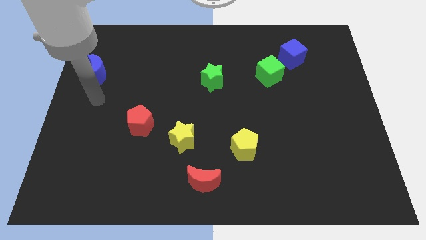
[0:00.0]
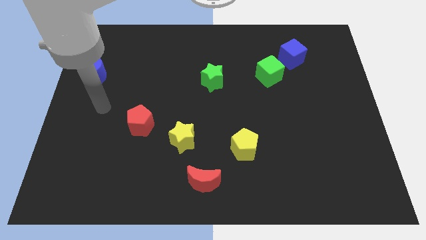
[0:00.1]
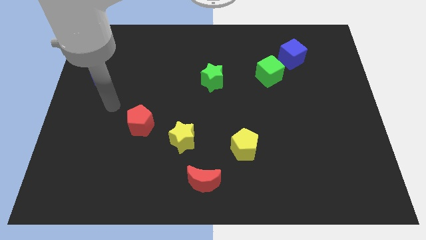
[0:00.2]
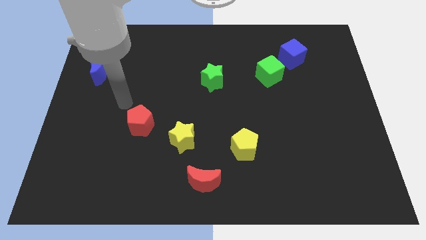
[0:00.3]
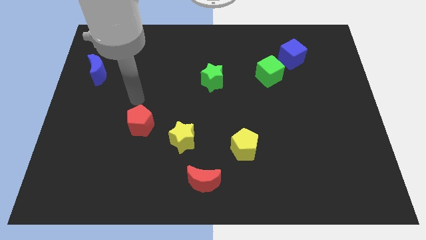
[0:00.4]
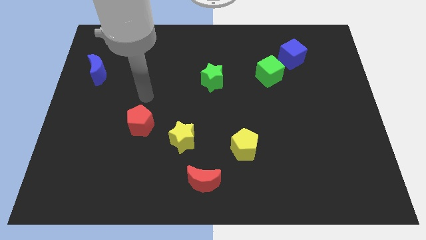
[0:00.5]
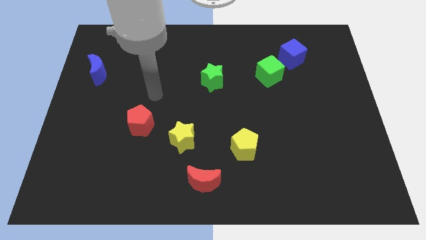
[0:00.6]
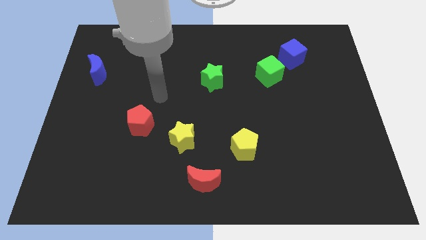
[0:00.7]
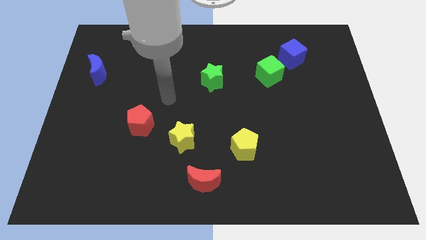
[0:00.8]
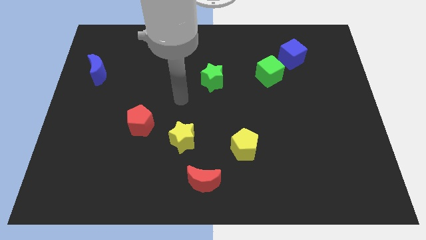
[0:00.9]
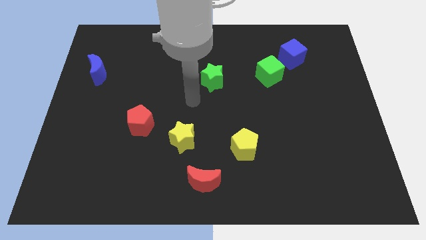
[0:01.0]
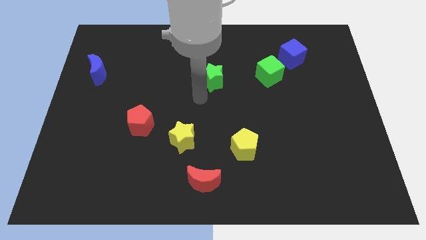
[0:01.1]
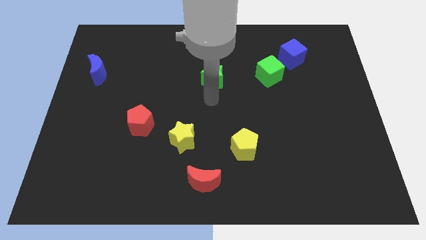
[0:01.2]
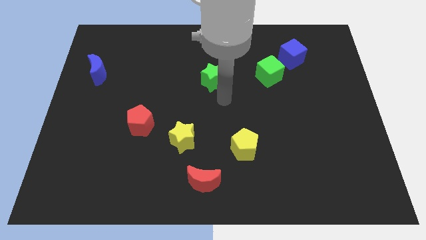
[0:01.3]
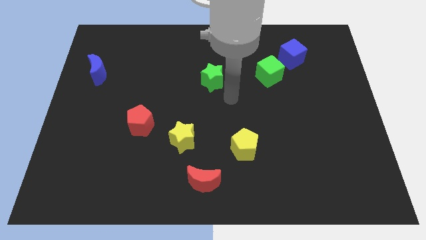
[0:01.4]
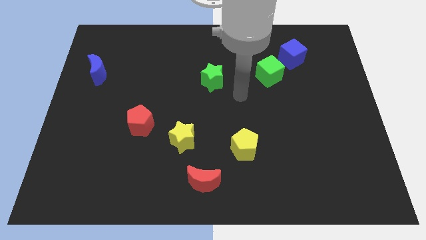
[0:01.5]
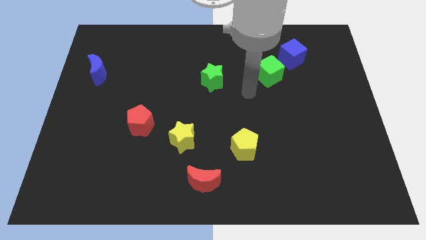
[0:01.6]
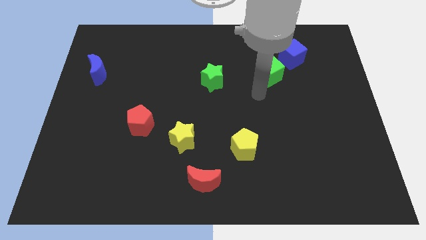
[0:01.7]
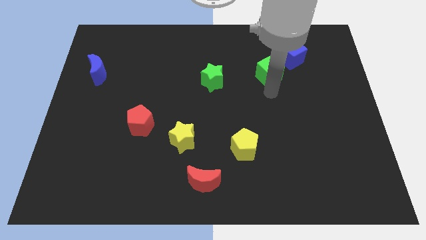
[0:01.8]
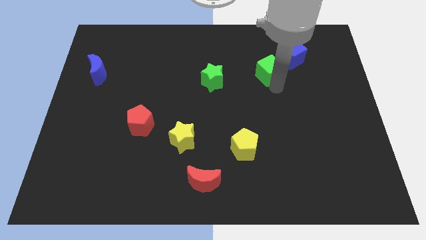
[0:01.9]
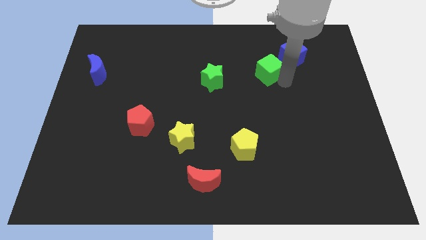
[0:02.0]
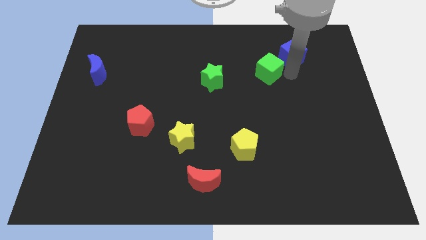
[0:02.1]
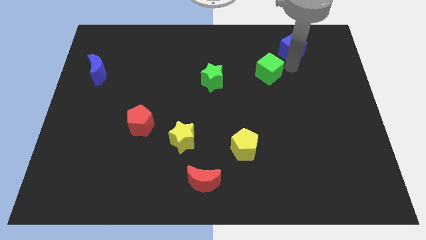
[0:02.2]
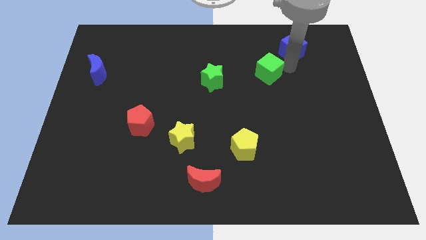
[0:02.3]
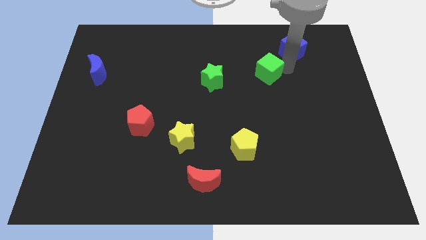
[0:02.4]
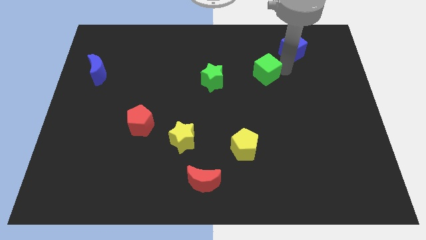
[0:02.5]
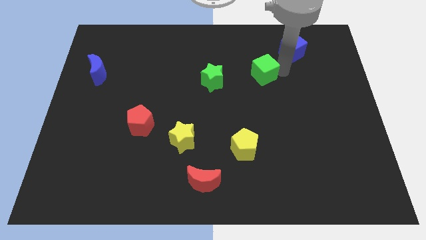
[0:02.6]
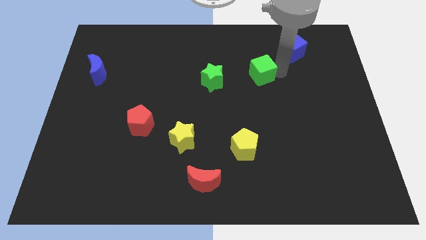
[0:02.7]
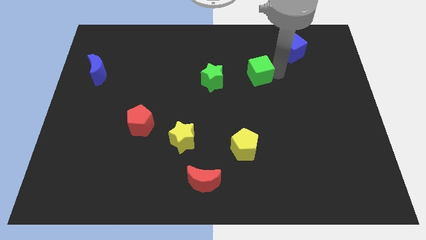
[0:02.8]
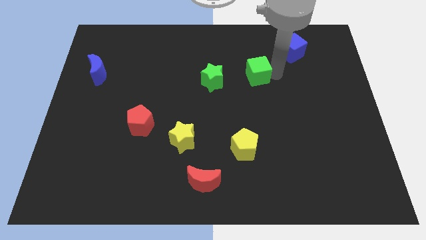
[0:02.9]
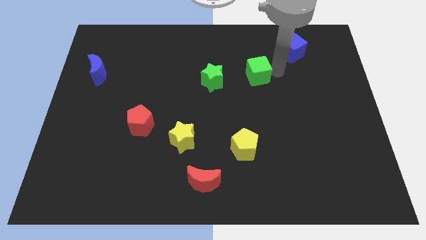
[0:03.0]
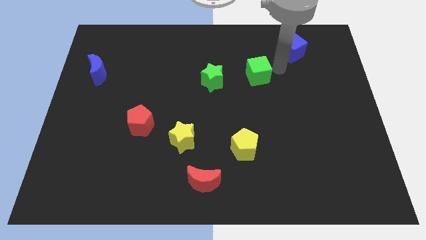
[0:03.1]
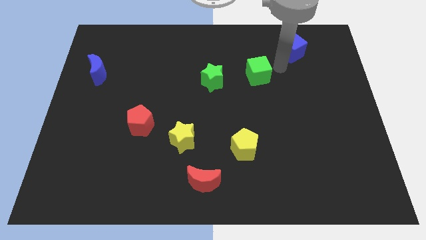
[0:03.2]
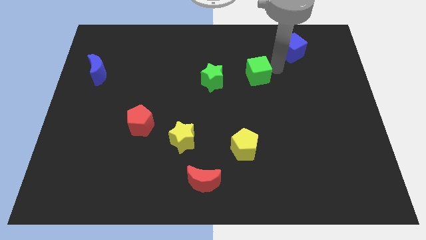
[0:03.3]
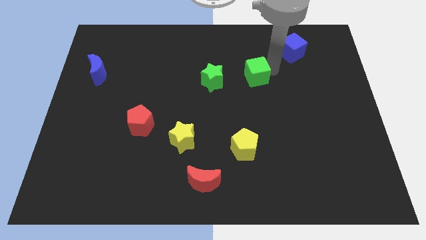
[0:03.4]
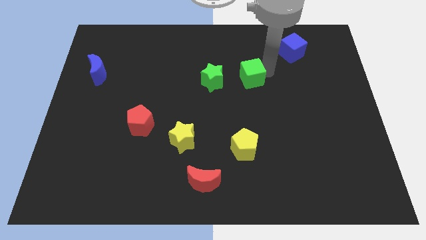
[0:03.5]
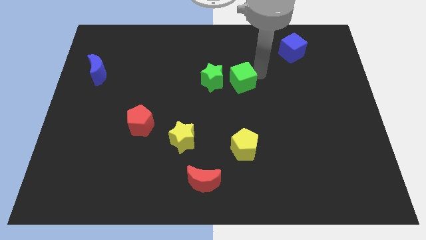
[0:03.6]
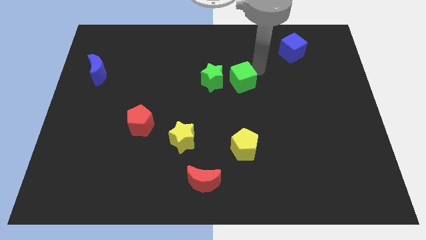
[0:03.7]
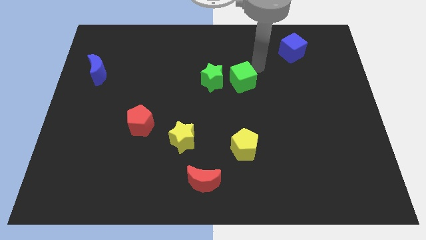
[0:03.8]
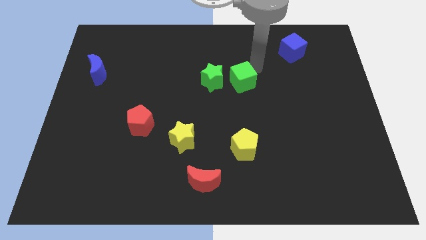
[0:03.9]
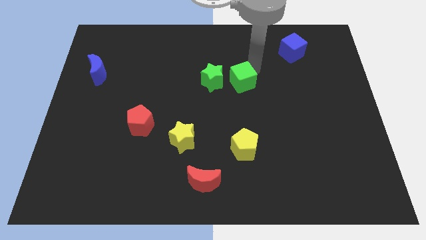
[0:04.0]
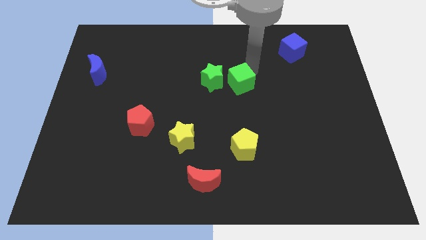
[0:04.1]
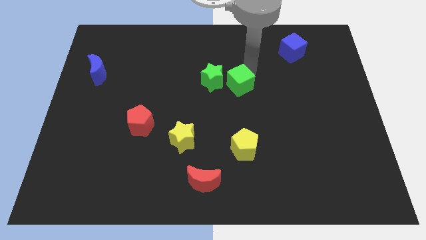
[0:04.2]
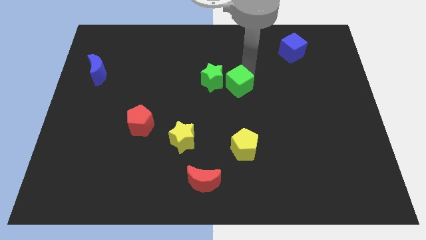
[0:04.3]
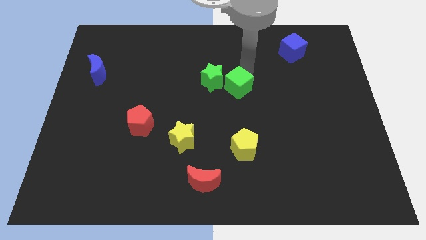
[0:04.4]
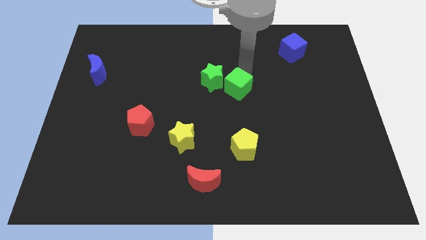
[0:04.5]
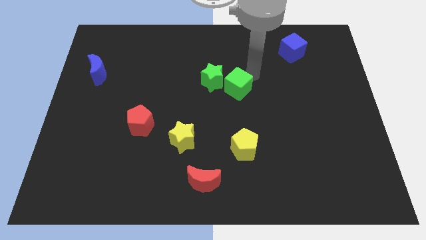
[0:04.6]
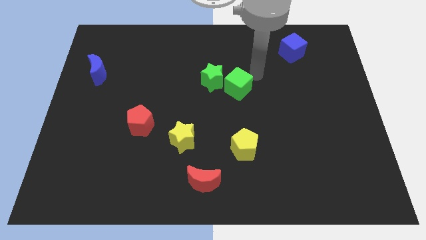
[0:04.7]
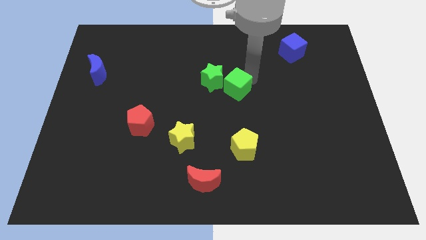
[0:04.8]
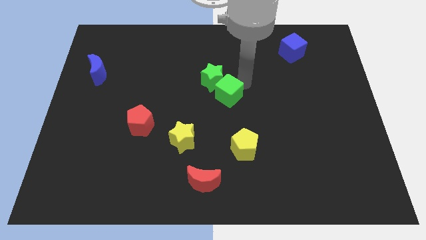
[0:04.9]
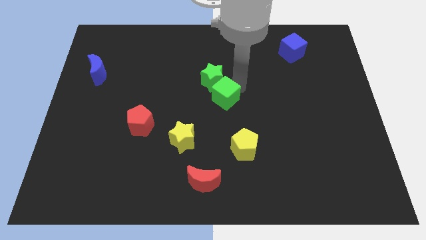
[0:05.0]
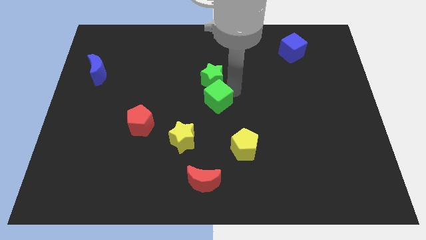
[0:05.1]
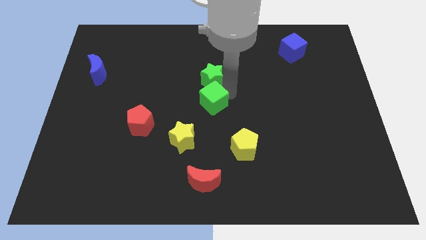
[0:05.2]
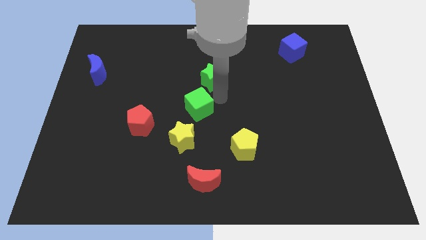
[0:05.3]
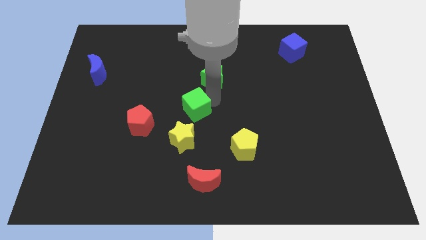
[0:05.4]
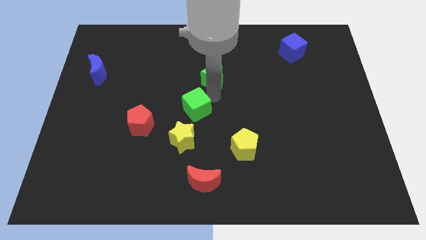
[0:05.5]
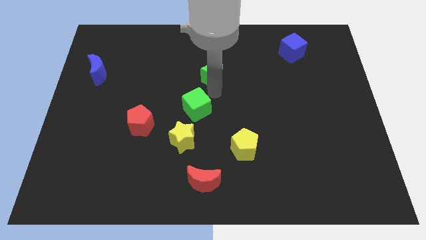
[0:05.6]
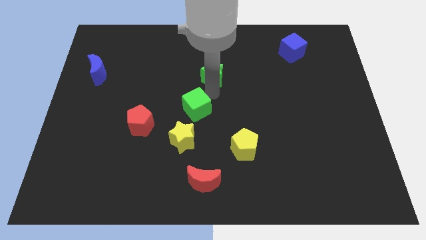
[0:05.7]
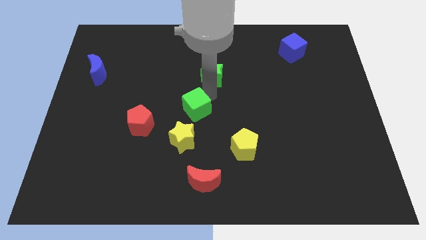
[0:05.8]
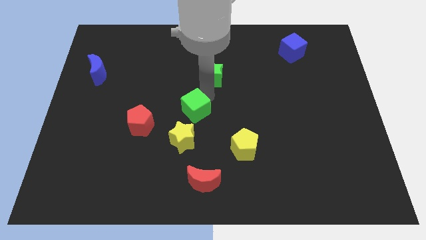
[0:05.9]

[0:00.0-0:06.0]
move the green cube downwards and then left

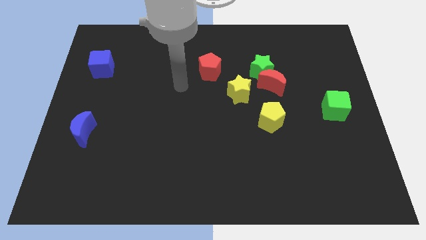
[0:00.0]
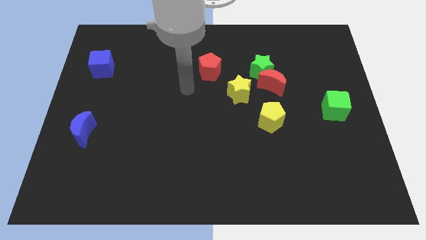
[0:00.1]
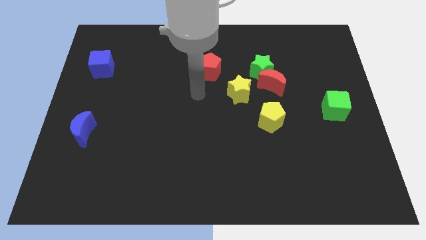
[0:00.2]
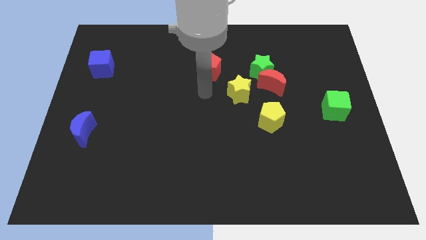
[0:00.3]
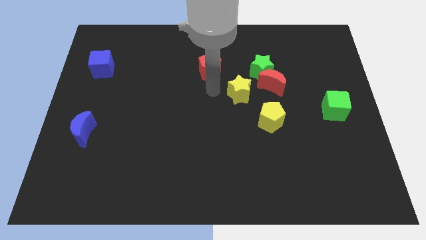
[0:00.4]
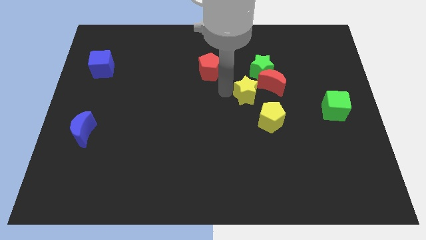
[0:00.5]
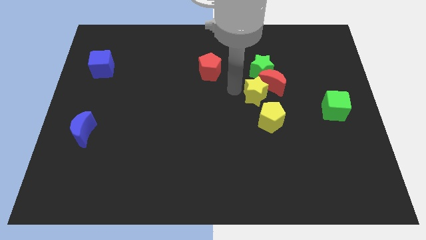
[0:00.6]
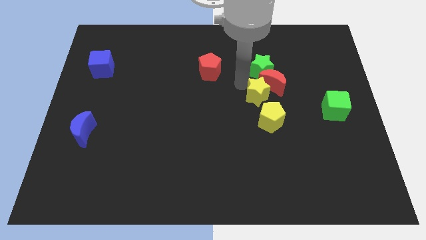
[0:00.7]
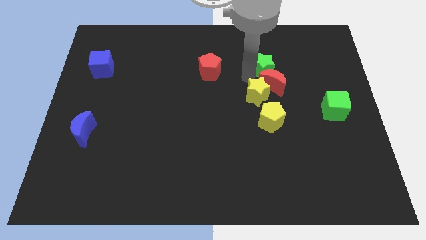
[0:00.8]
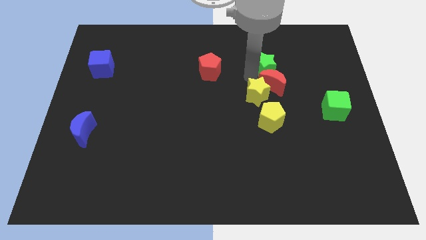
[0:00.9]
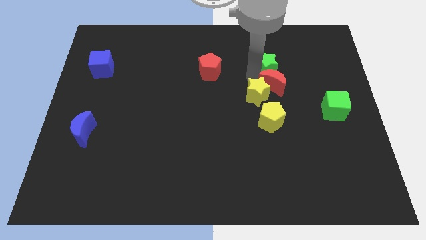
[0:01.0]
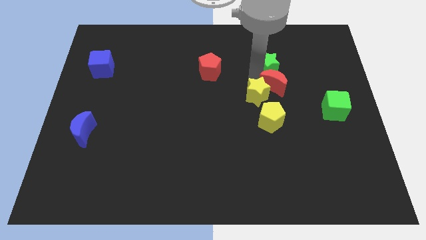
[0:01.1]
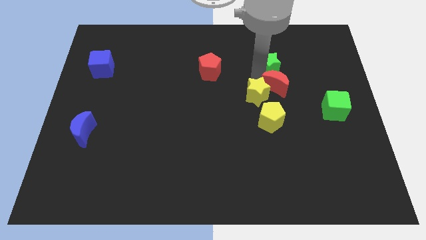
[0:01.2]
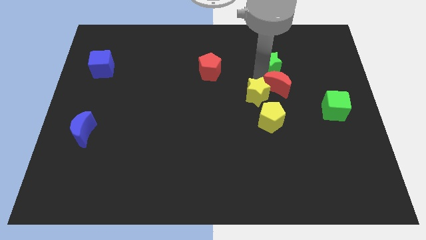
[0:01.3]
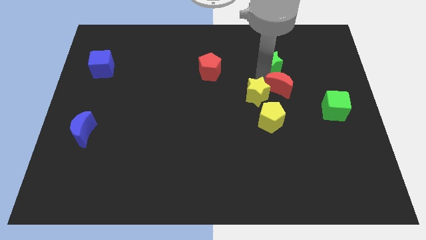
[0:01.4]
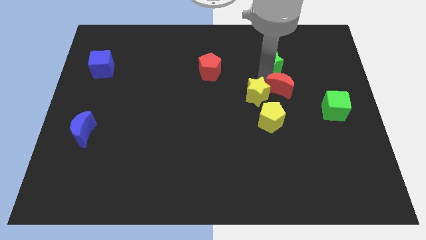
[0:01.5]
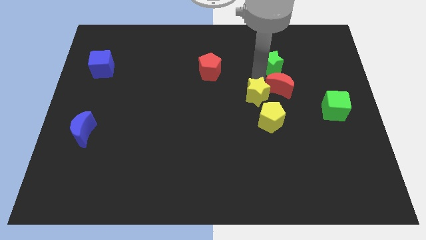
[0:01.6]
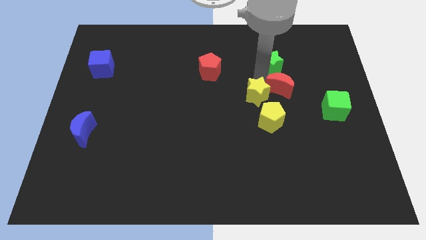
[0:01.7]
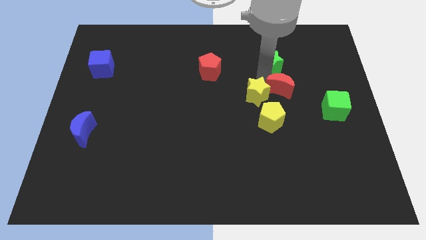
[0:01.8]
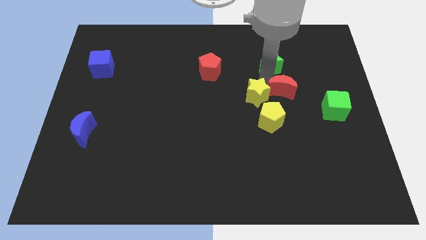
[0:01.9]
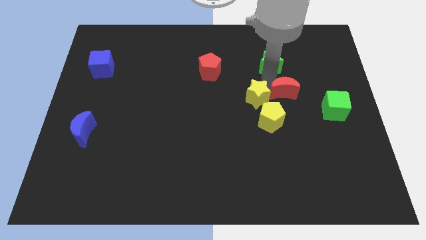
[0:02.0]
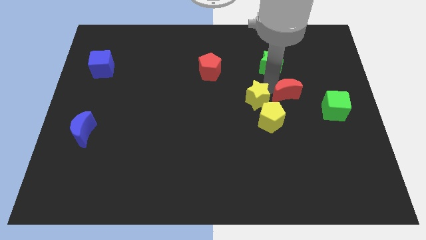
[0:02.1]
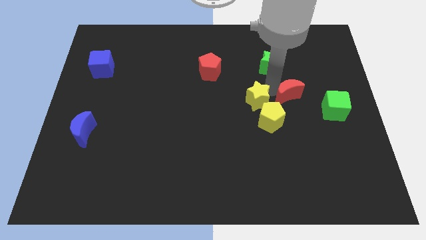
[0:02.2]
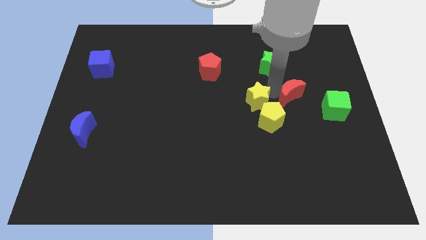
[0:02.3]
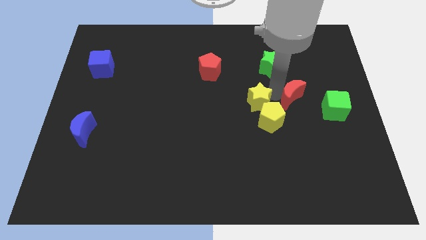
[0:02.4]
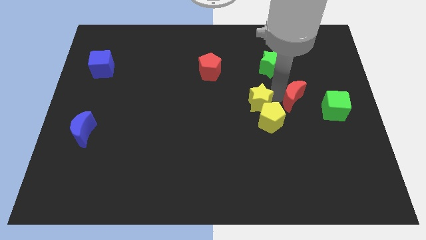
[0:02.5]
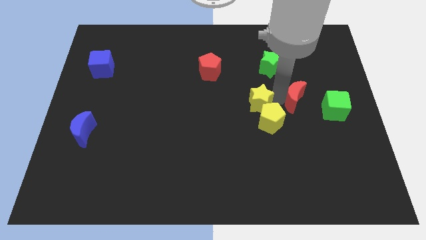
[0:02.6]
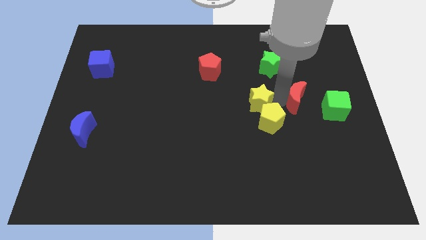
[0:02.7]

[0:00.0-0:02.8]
slide the red moon a little bit diagonally downwards and to the right
